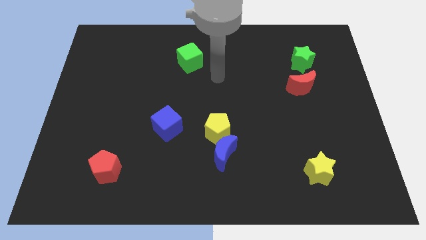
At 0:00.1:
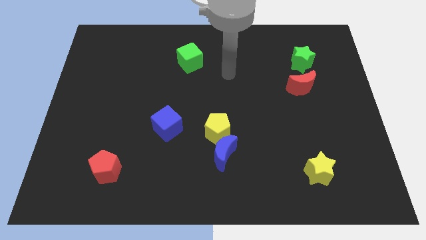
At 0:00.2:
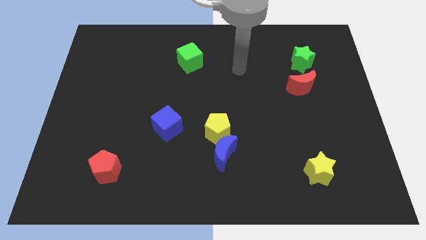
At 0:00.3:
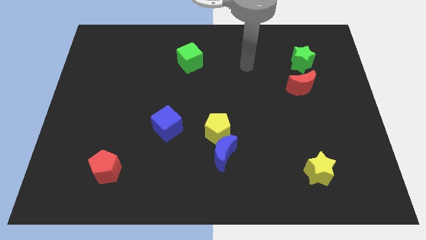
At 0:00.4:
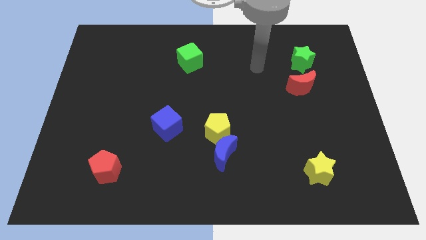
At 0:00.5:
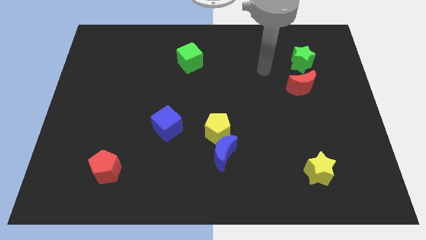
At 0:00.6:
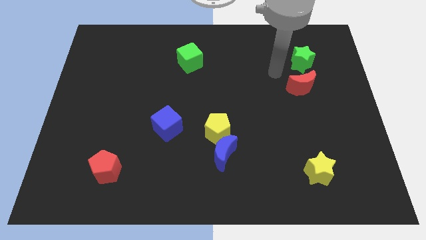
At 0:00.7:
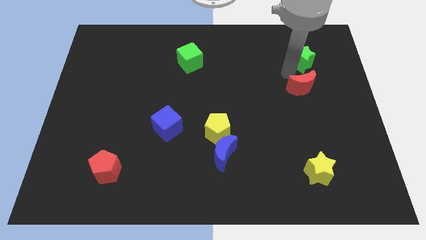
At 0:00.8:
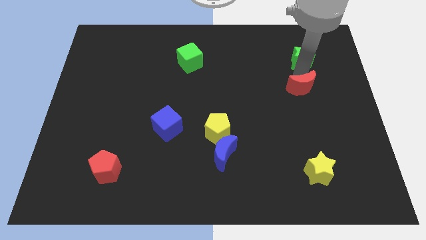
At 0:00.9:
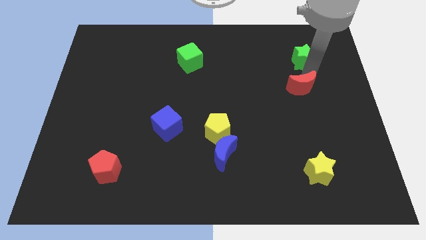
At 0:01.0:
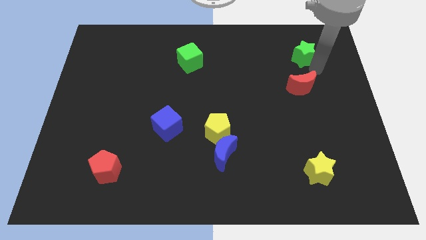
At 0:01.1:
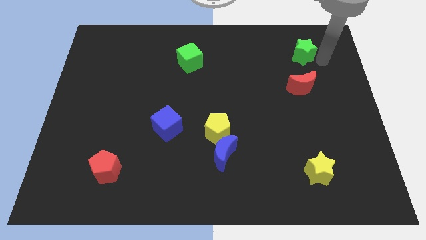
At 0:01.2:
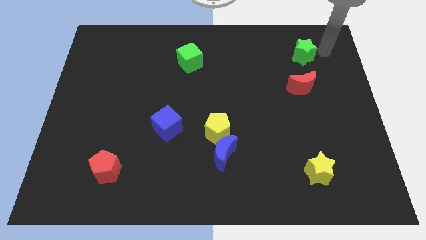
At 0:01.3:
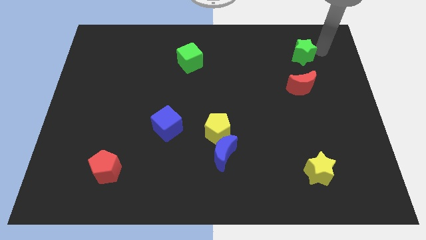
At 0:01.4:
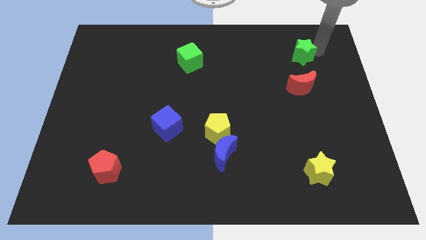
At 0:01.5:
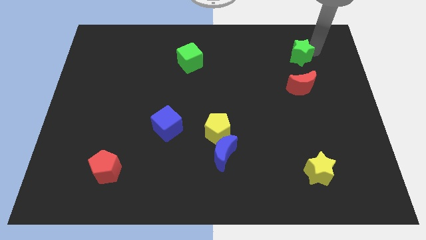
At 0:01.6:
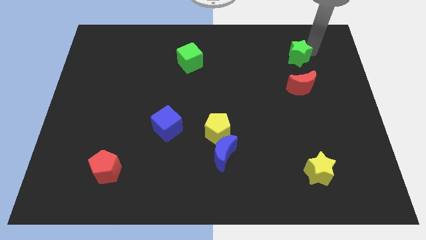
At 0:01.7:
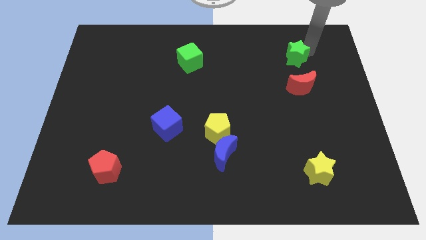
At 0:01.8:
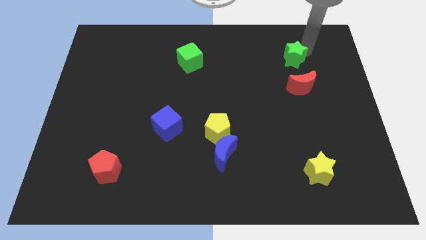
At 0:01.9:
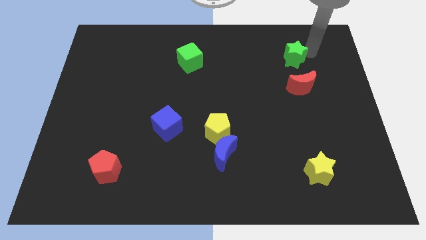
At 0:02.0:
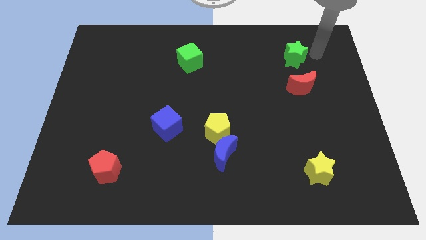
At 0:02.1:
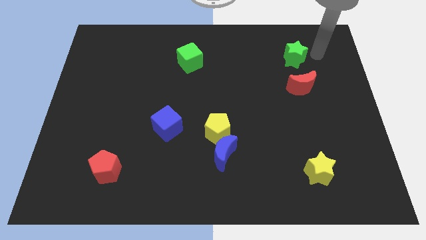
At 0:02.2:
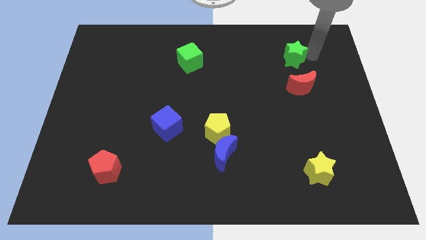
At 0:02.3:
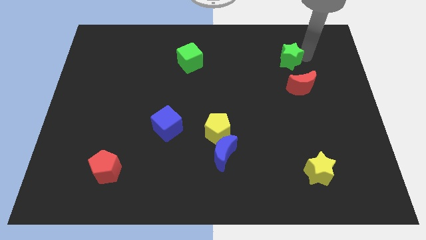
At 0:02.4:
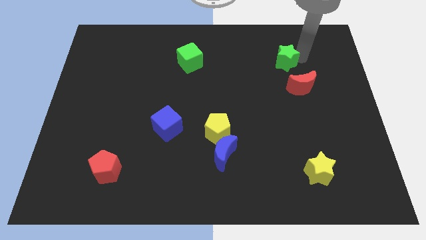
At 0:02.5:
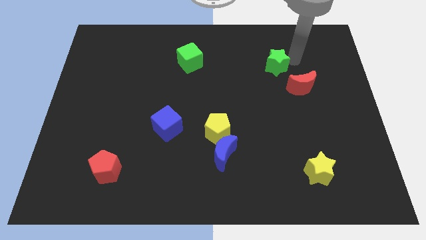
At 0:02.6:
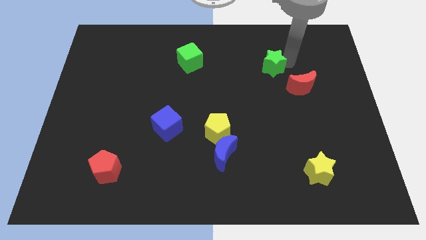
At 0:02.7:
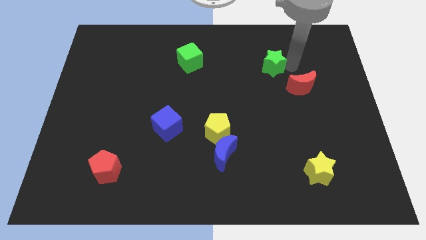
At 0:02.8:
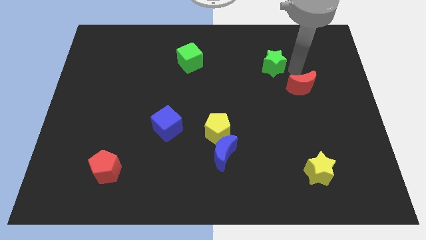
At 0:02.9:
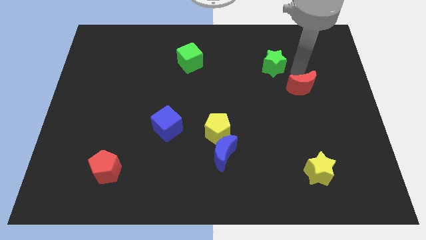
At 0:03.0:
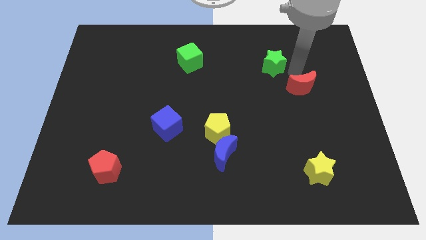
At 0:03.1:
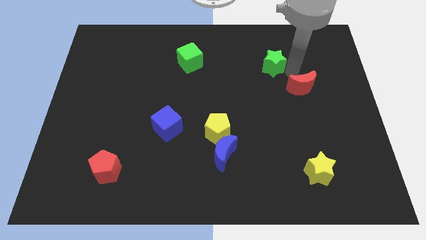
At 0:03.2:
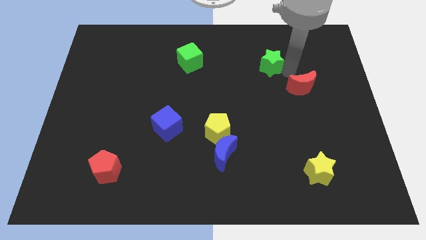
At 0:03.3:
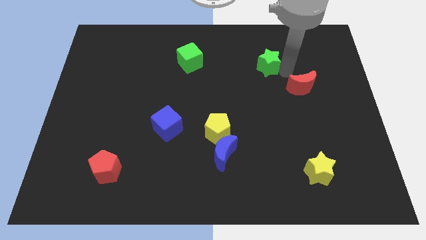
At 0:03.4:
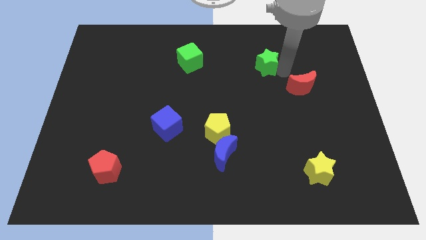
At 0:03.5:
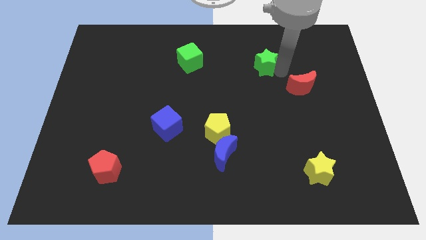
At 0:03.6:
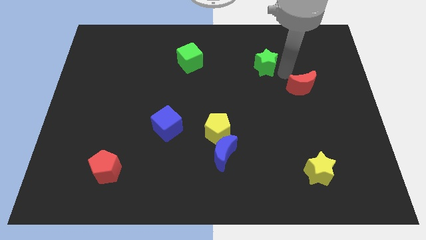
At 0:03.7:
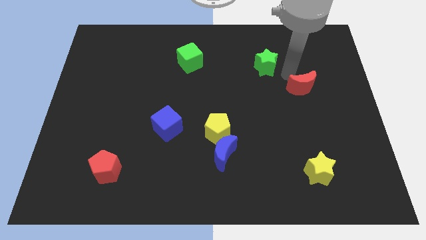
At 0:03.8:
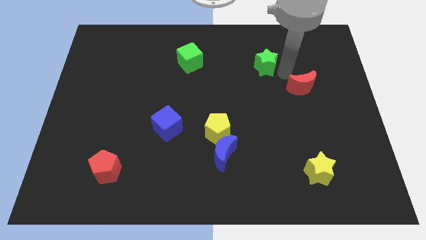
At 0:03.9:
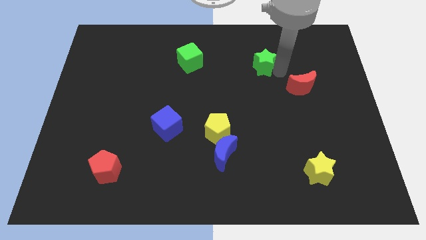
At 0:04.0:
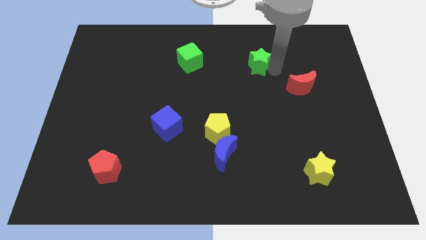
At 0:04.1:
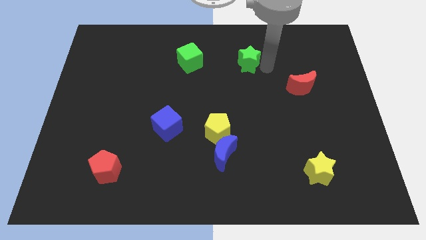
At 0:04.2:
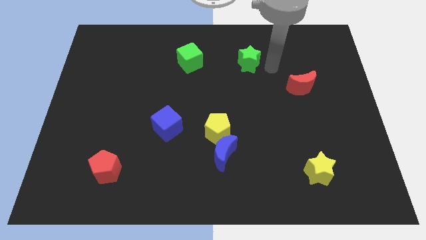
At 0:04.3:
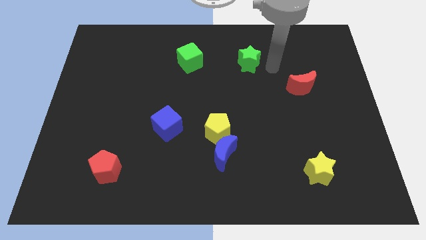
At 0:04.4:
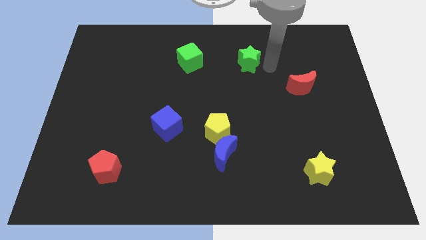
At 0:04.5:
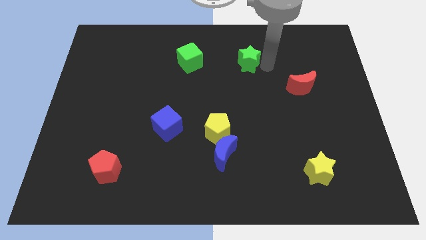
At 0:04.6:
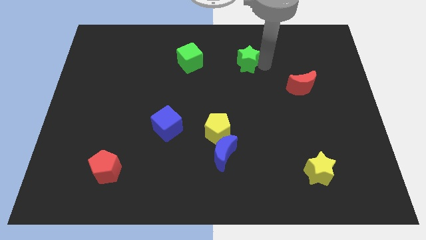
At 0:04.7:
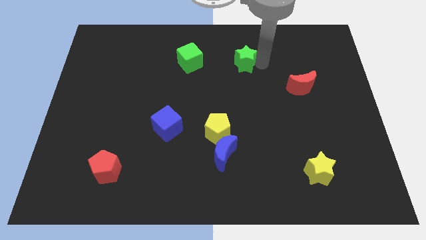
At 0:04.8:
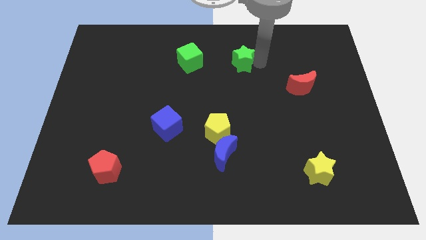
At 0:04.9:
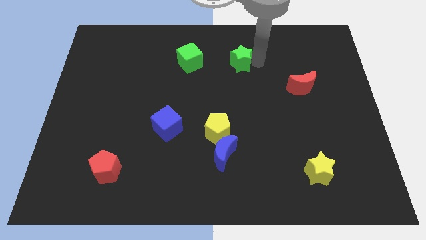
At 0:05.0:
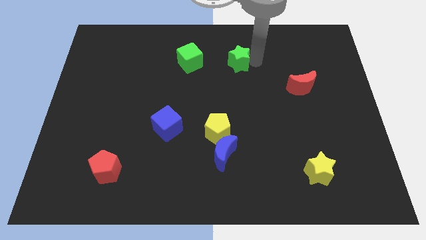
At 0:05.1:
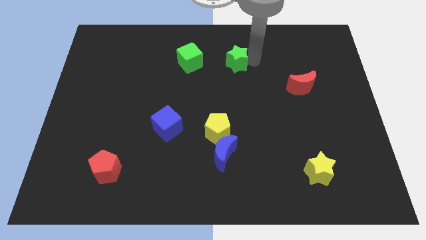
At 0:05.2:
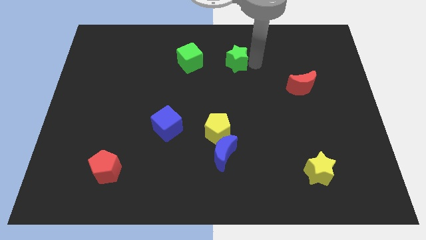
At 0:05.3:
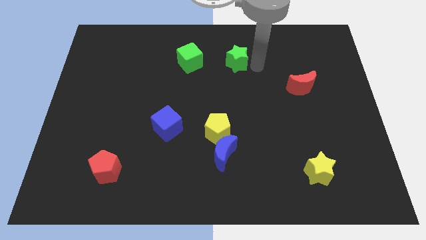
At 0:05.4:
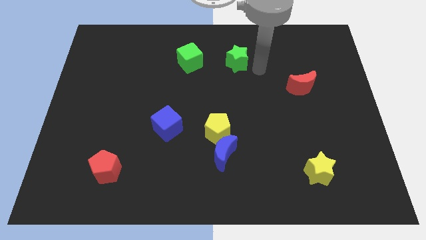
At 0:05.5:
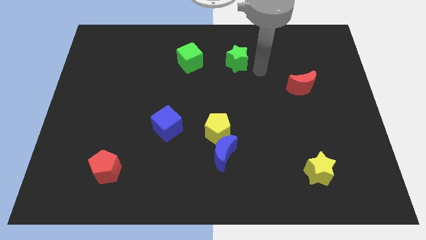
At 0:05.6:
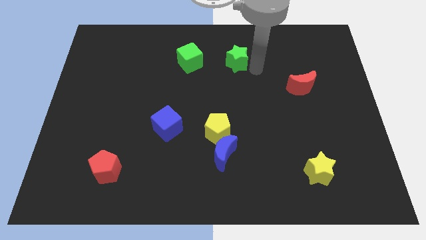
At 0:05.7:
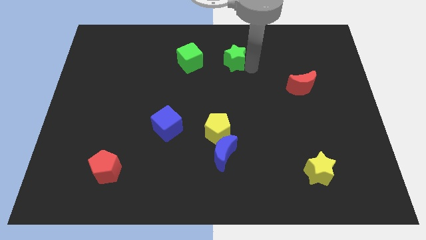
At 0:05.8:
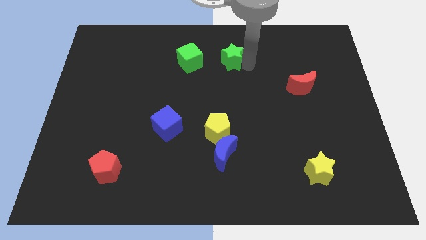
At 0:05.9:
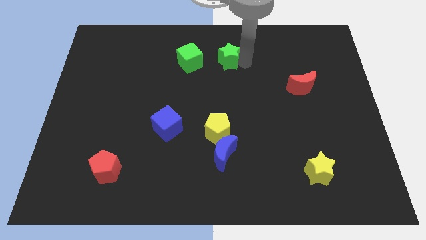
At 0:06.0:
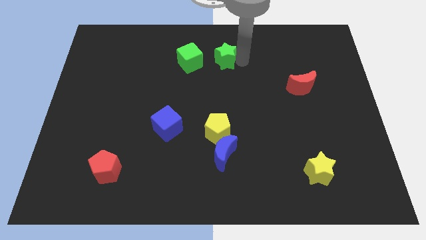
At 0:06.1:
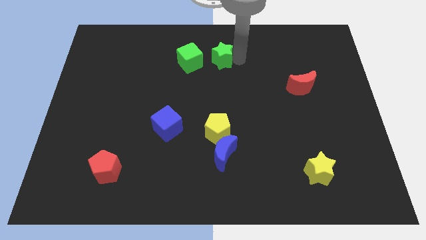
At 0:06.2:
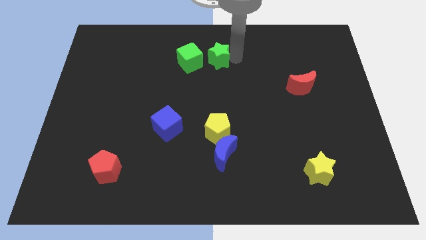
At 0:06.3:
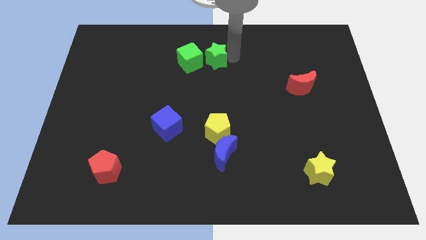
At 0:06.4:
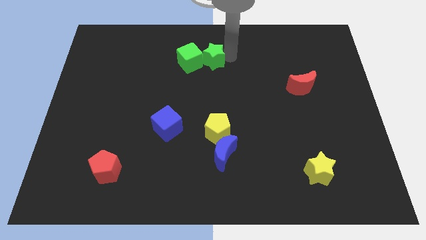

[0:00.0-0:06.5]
put the green star next to the green cube

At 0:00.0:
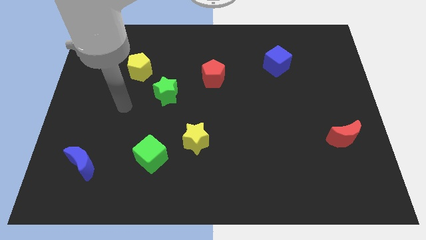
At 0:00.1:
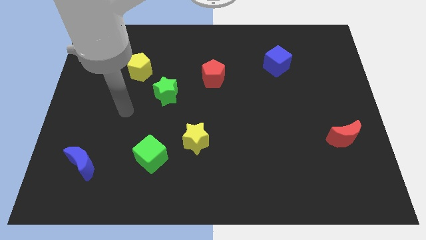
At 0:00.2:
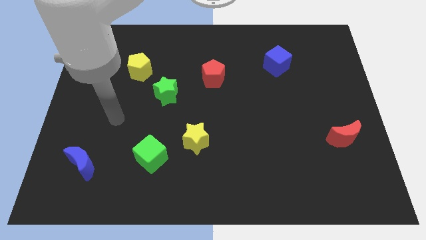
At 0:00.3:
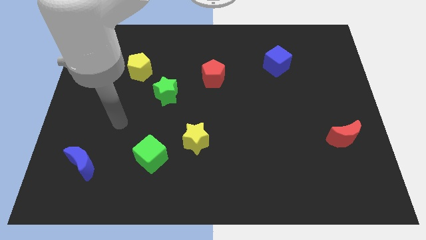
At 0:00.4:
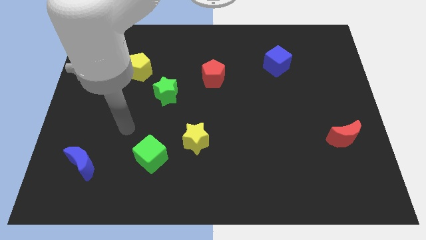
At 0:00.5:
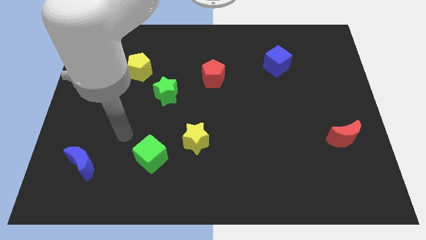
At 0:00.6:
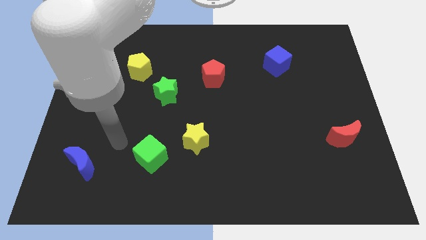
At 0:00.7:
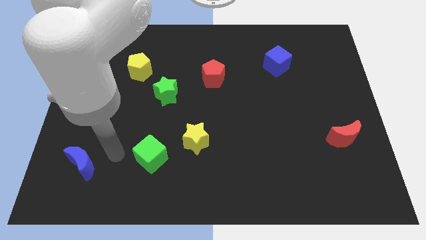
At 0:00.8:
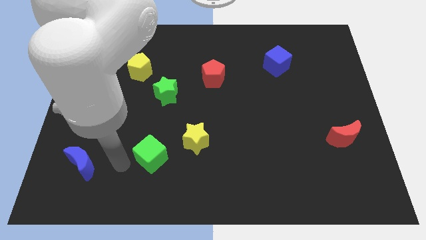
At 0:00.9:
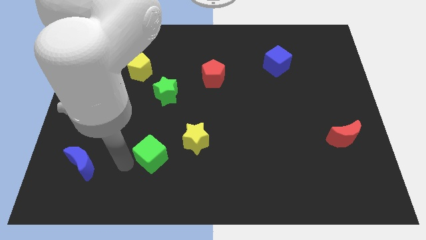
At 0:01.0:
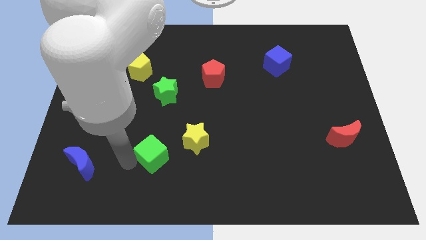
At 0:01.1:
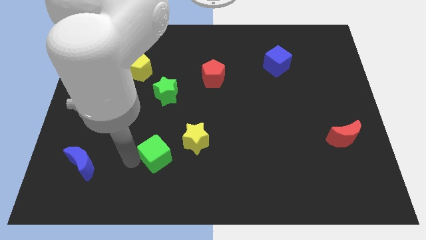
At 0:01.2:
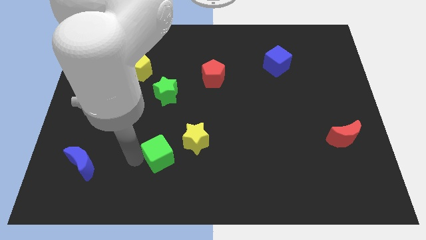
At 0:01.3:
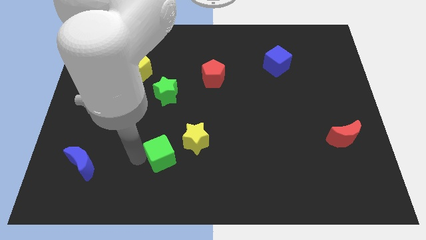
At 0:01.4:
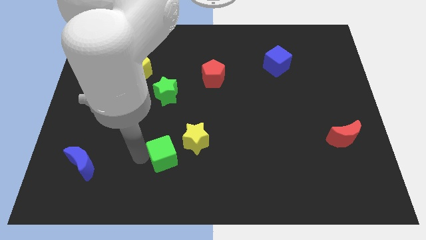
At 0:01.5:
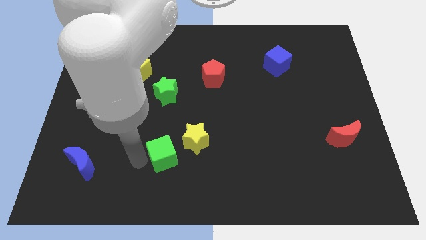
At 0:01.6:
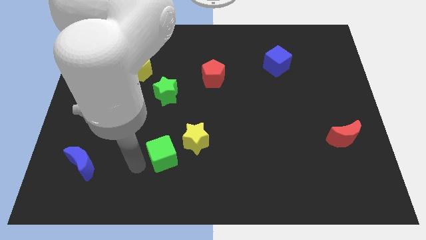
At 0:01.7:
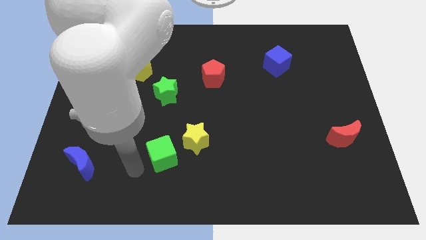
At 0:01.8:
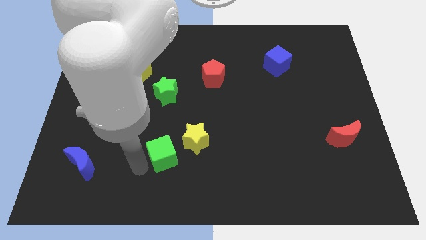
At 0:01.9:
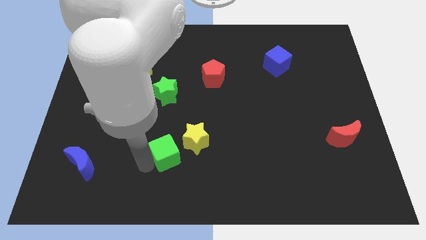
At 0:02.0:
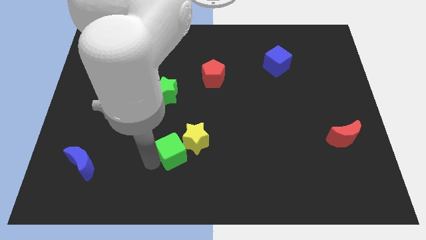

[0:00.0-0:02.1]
slide the green cube close to the yellow star
